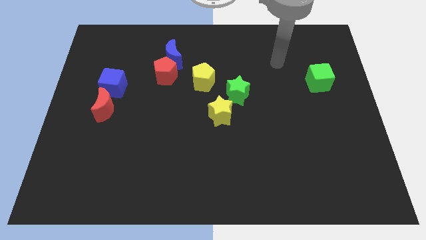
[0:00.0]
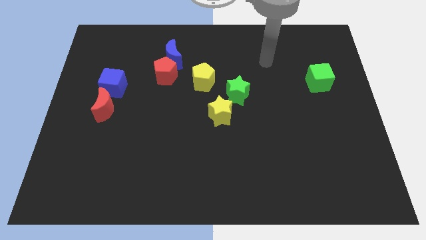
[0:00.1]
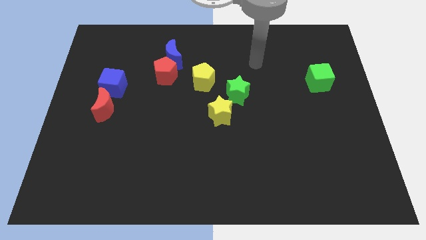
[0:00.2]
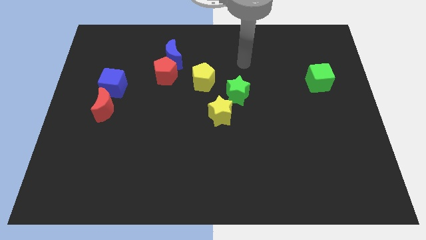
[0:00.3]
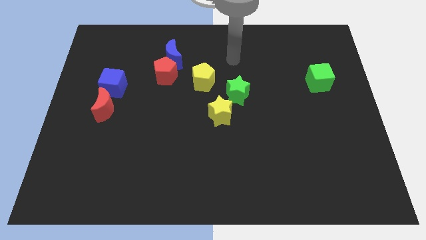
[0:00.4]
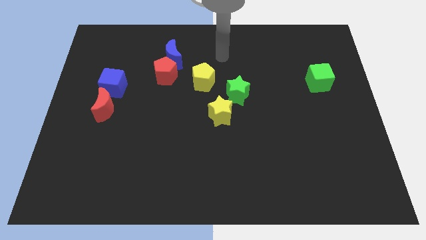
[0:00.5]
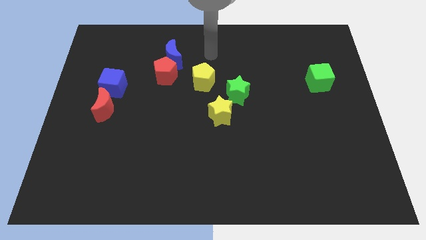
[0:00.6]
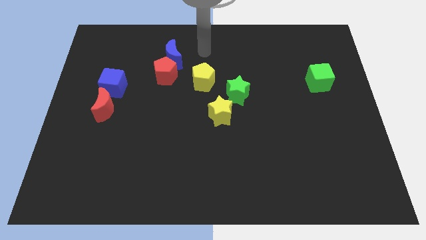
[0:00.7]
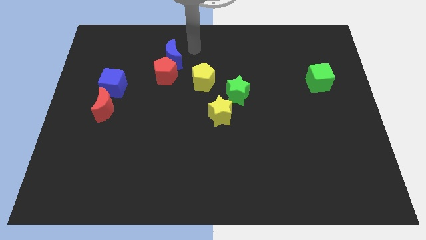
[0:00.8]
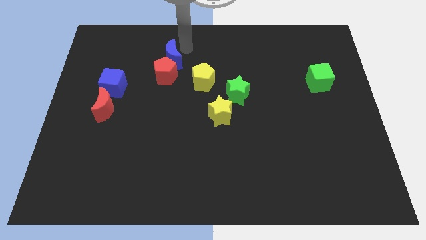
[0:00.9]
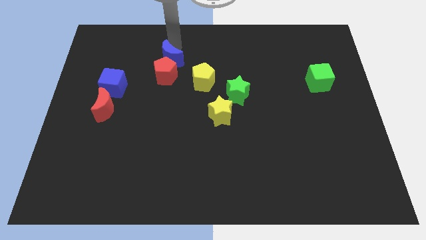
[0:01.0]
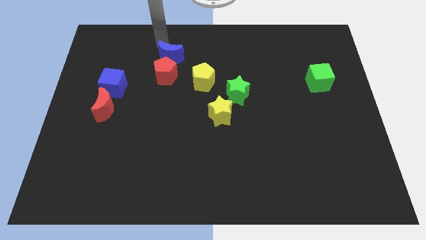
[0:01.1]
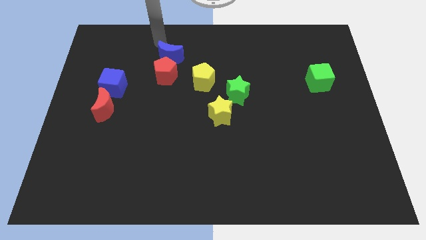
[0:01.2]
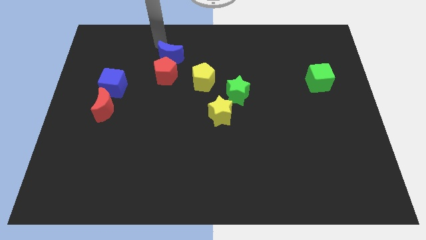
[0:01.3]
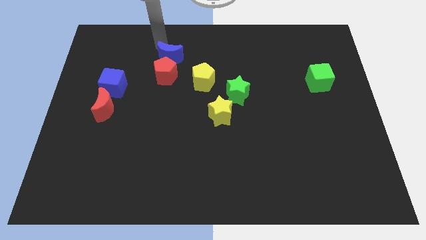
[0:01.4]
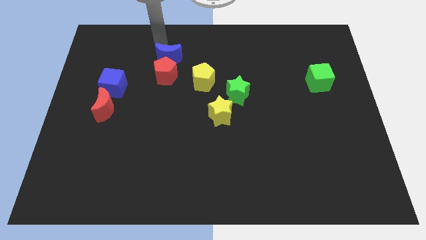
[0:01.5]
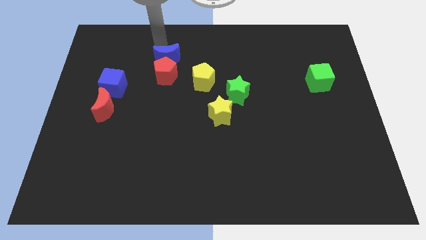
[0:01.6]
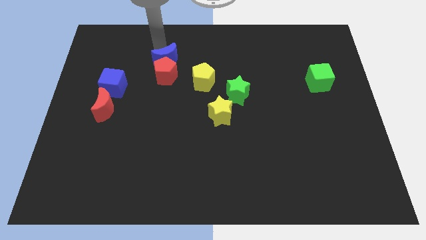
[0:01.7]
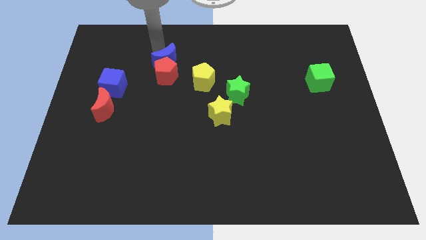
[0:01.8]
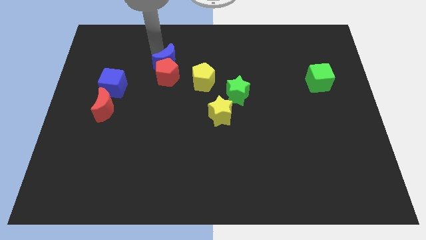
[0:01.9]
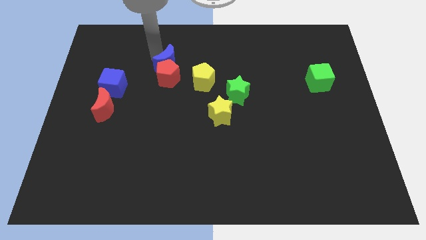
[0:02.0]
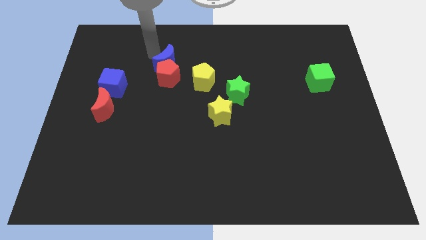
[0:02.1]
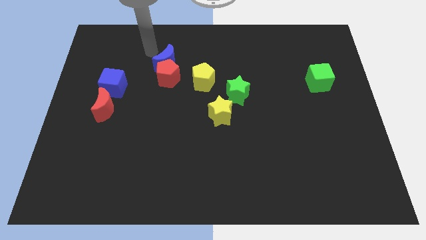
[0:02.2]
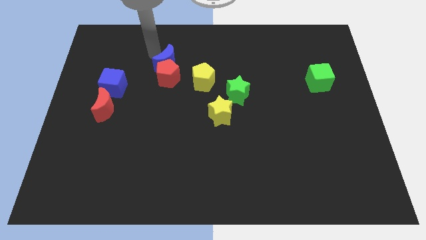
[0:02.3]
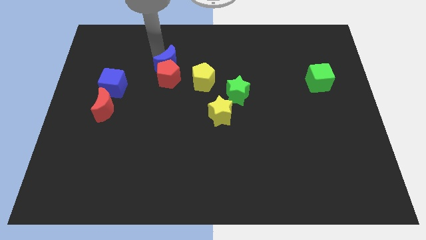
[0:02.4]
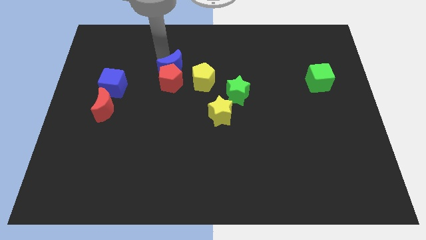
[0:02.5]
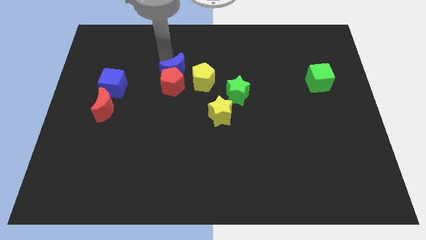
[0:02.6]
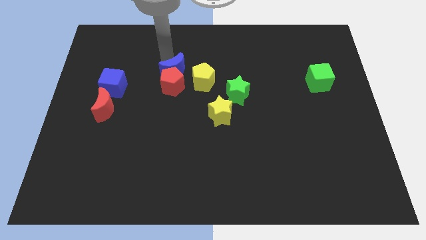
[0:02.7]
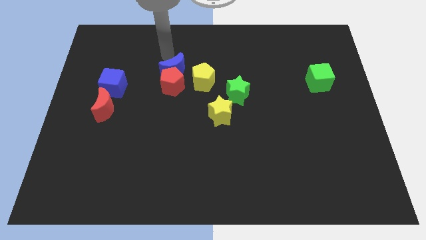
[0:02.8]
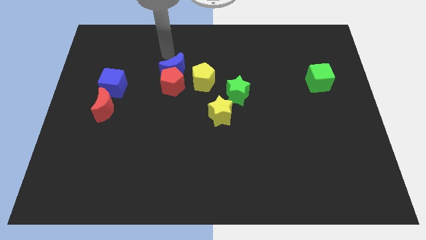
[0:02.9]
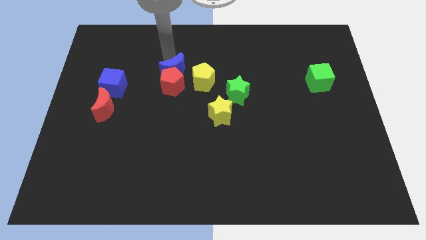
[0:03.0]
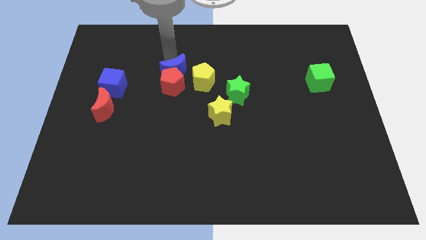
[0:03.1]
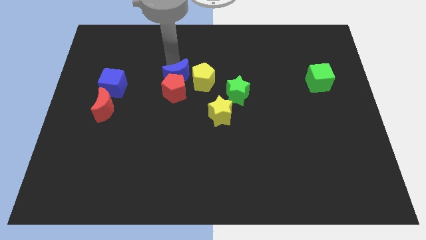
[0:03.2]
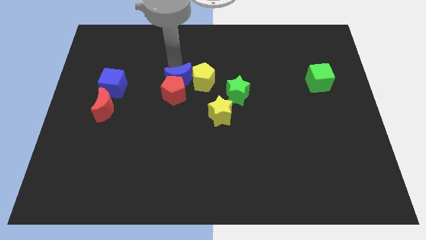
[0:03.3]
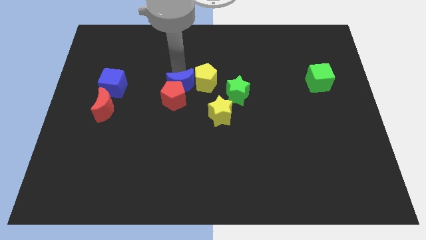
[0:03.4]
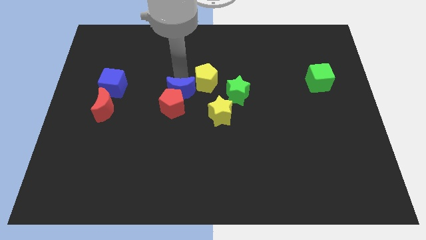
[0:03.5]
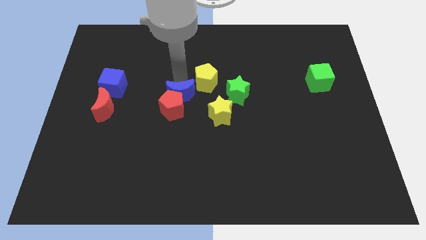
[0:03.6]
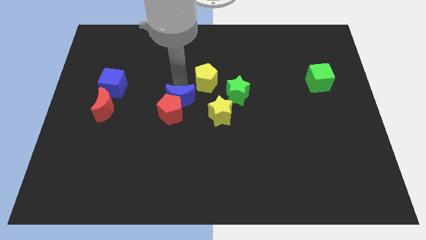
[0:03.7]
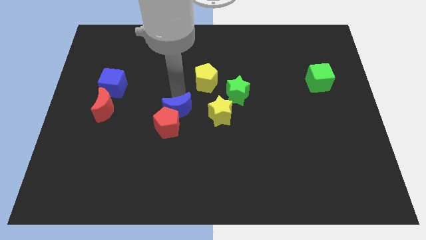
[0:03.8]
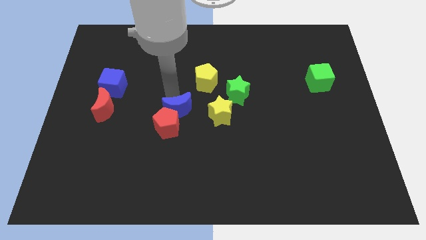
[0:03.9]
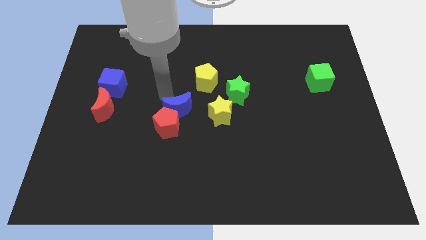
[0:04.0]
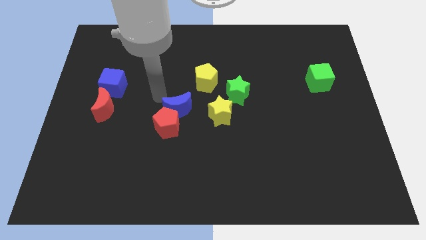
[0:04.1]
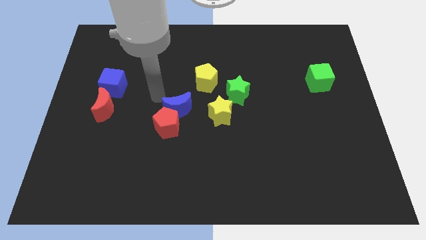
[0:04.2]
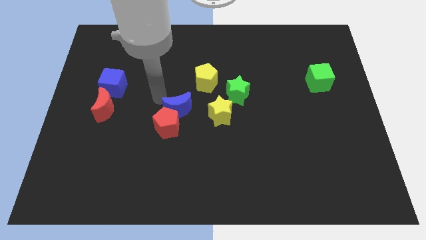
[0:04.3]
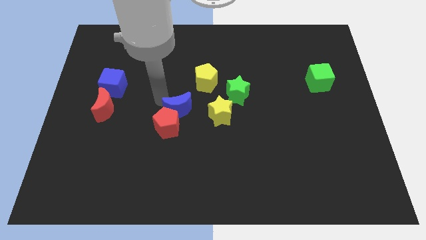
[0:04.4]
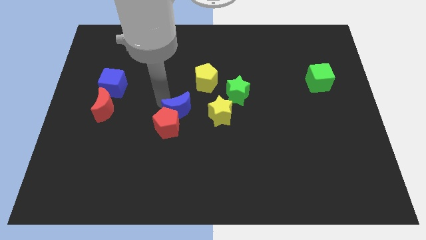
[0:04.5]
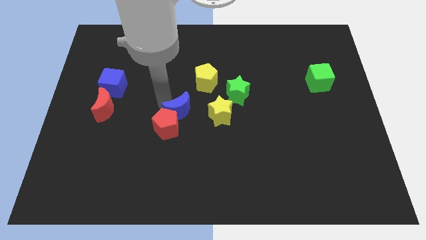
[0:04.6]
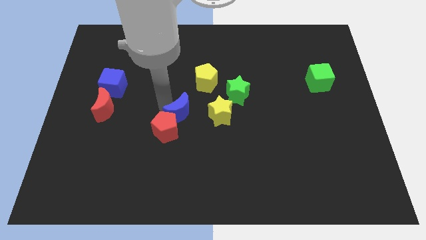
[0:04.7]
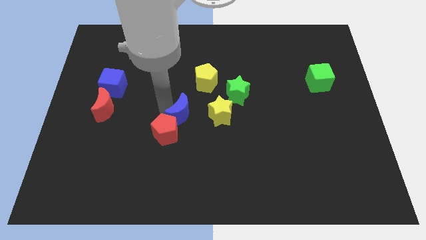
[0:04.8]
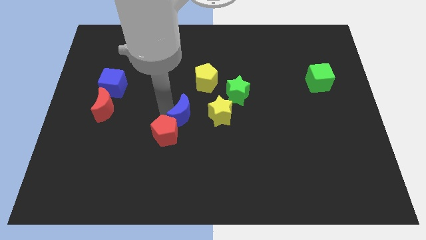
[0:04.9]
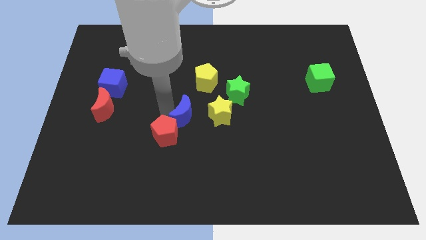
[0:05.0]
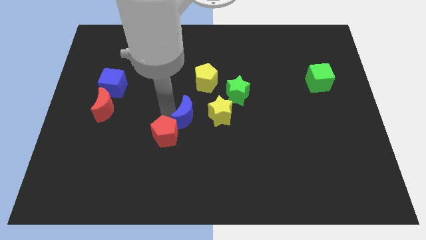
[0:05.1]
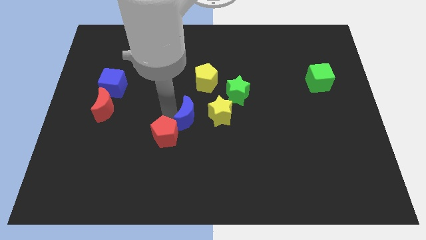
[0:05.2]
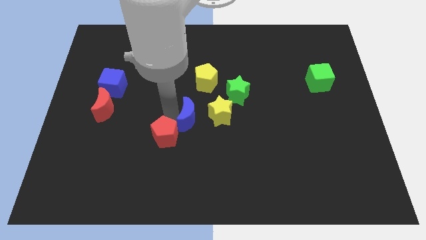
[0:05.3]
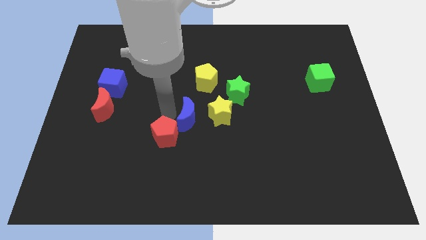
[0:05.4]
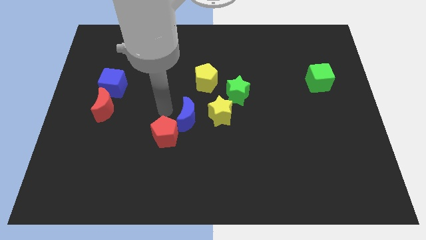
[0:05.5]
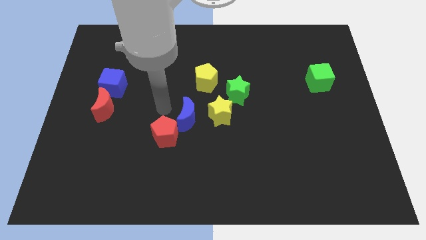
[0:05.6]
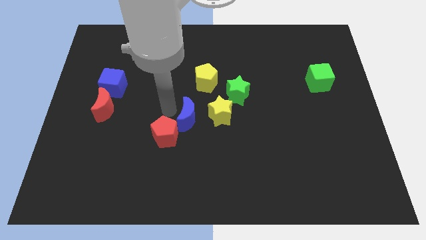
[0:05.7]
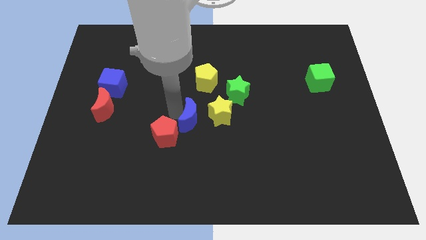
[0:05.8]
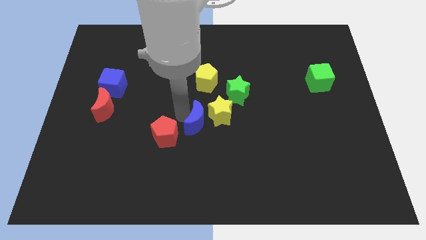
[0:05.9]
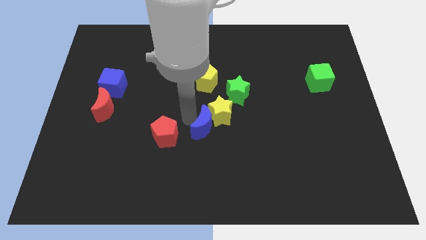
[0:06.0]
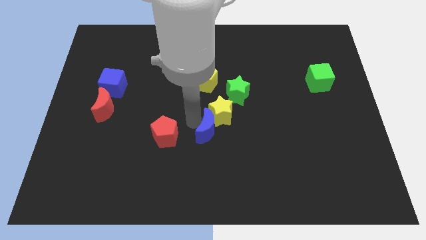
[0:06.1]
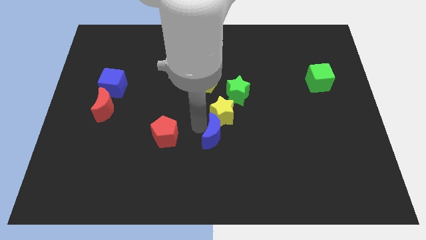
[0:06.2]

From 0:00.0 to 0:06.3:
push the blue moon downwards and right diagonally

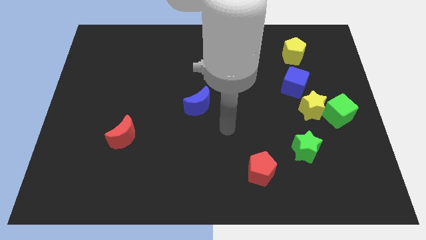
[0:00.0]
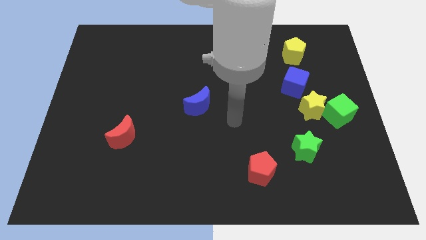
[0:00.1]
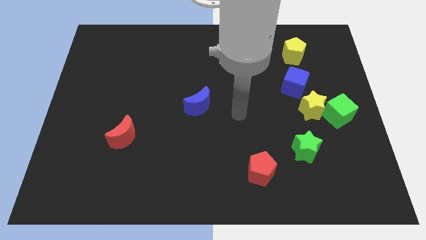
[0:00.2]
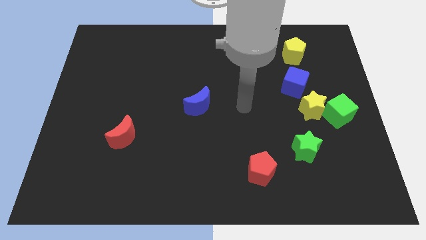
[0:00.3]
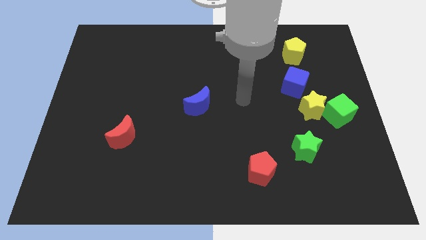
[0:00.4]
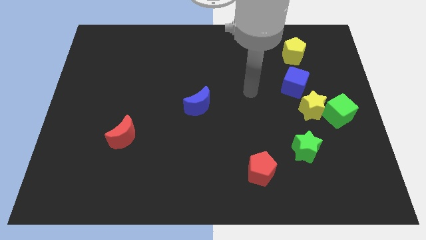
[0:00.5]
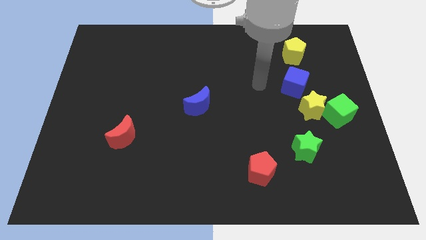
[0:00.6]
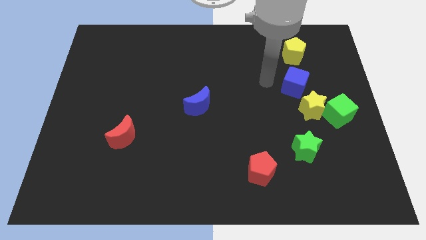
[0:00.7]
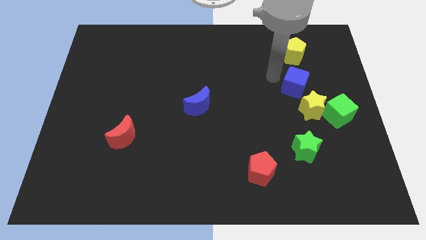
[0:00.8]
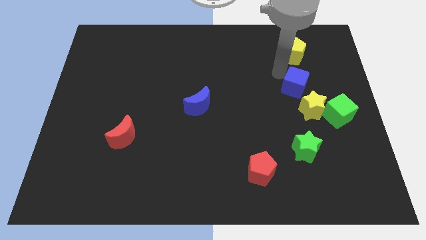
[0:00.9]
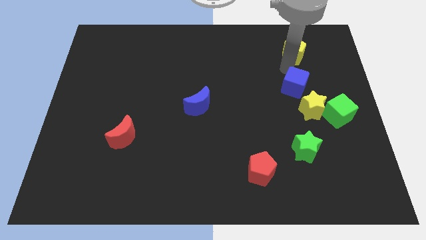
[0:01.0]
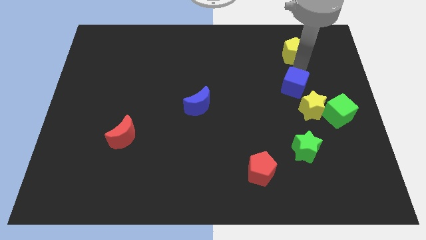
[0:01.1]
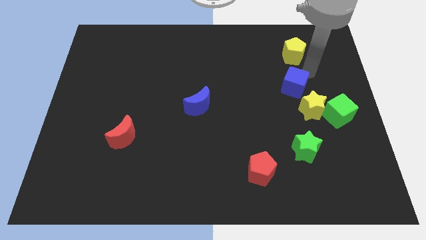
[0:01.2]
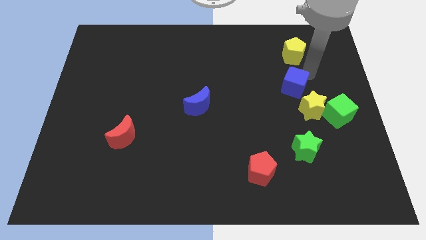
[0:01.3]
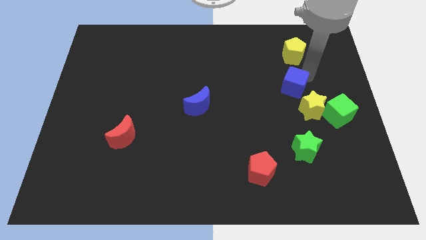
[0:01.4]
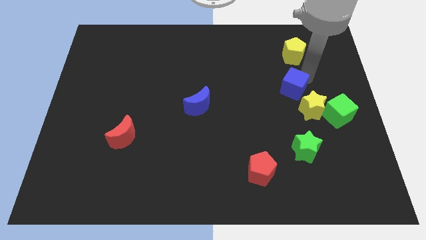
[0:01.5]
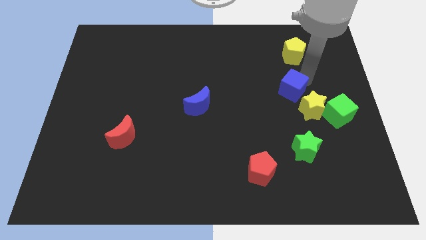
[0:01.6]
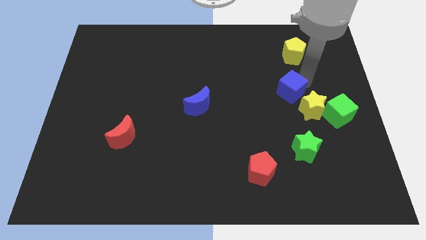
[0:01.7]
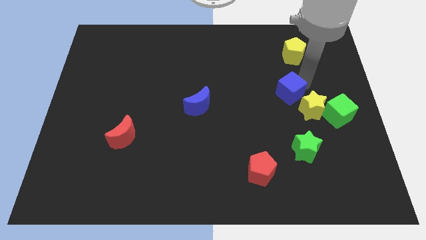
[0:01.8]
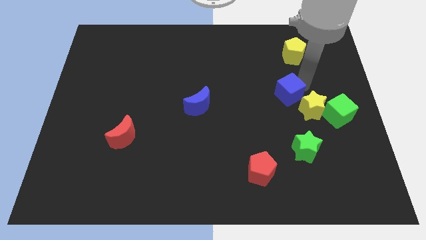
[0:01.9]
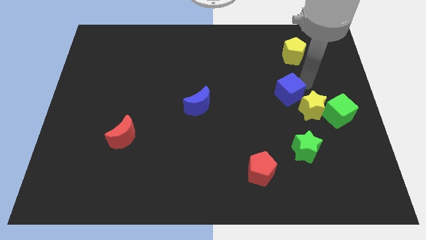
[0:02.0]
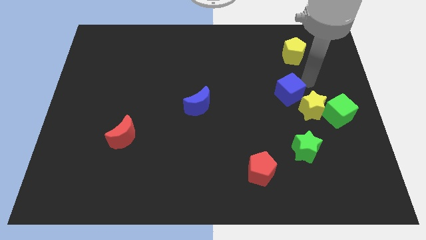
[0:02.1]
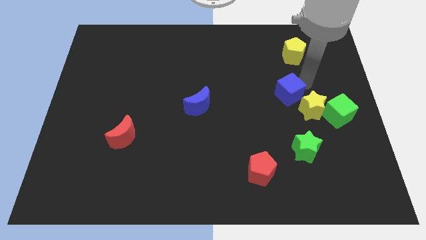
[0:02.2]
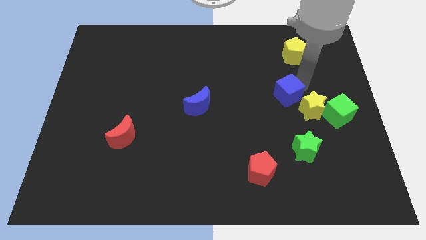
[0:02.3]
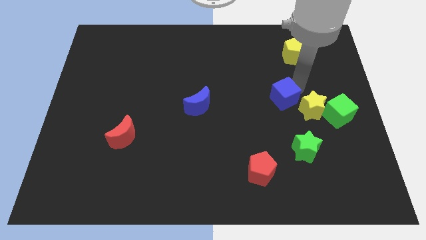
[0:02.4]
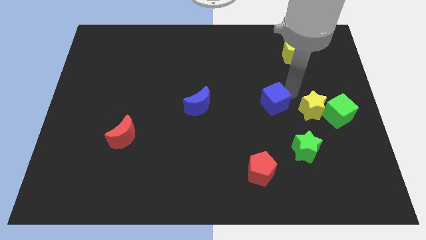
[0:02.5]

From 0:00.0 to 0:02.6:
slightly move the blue cube diagonally downwards and to the left
